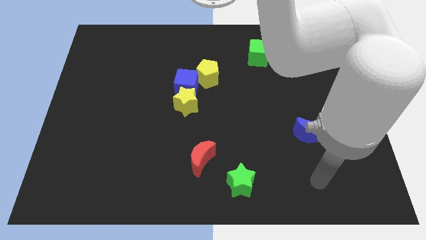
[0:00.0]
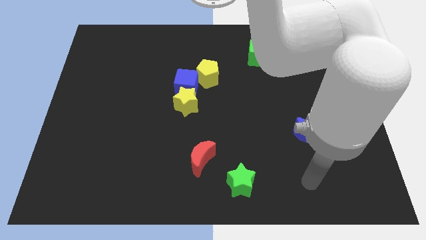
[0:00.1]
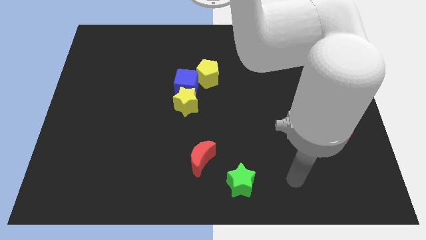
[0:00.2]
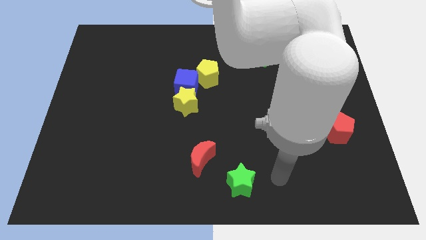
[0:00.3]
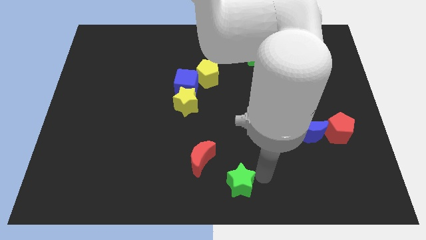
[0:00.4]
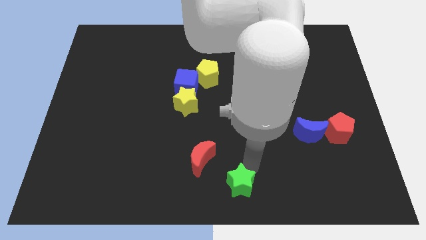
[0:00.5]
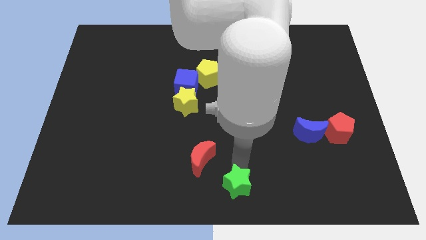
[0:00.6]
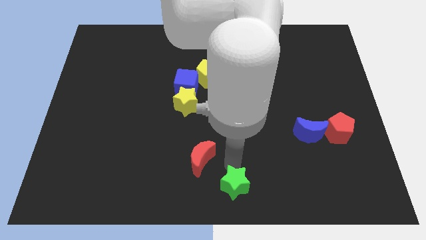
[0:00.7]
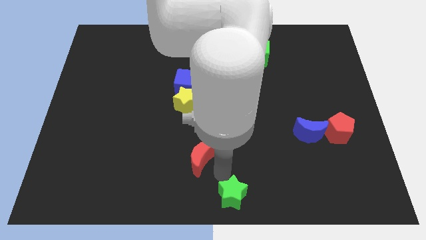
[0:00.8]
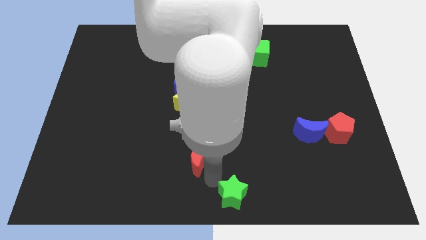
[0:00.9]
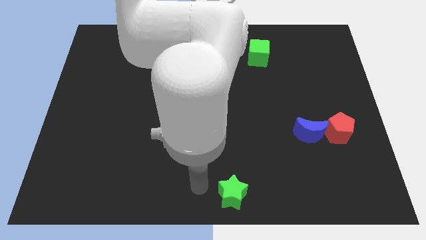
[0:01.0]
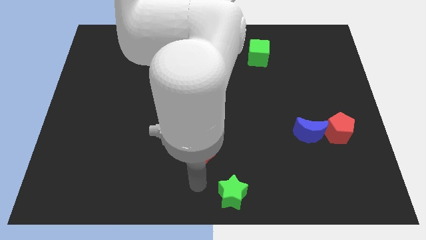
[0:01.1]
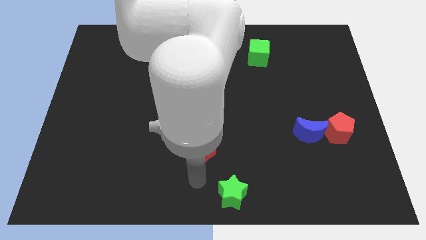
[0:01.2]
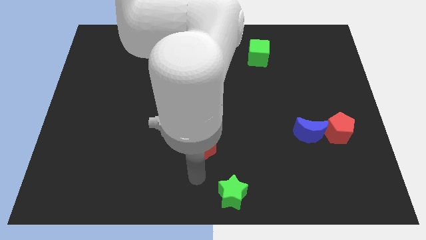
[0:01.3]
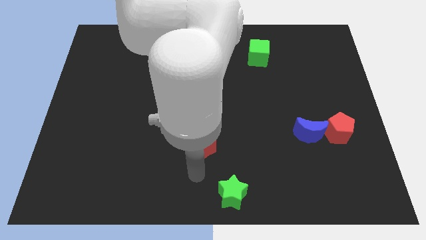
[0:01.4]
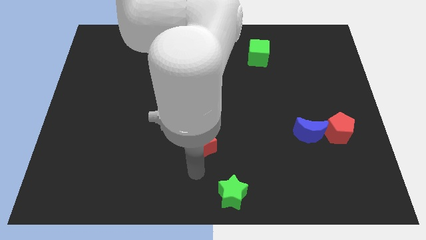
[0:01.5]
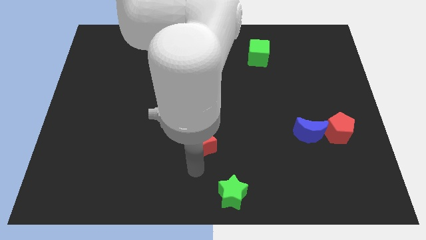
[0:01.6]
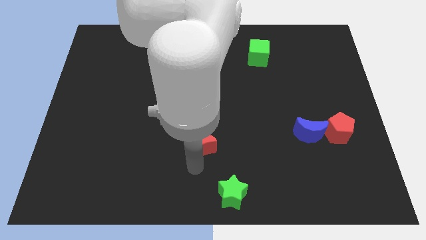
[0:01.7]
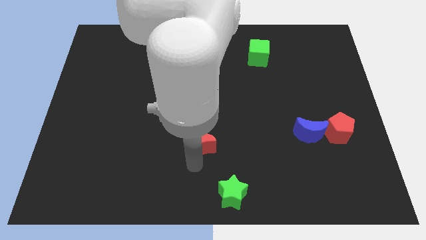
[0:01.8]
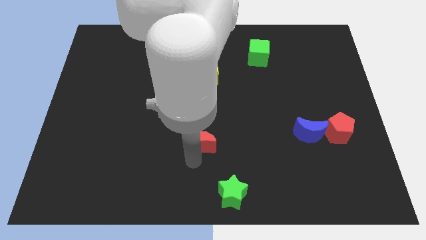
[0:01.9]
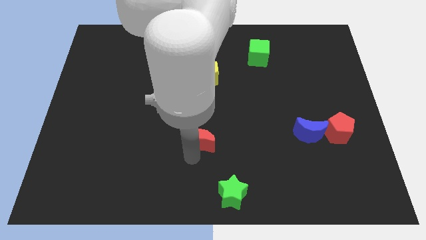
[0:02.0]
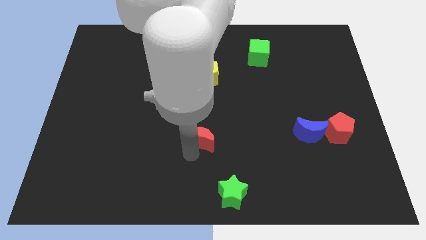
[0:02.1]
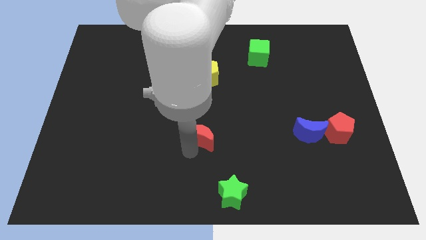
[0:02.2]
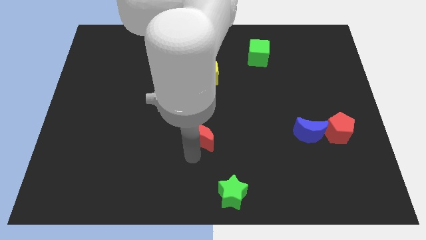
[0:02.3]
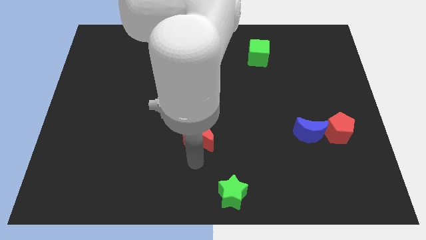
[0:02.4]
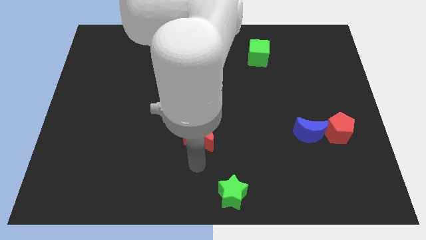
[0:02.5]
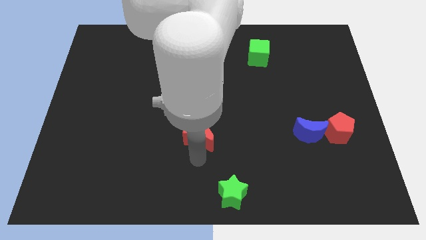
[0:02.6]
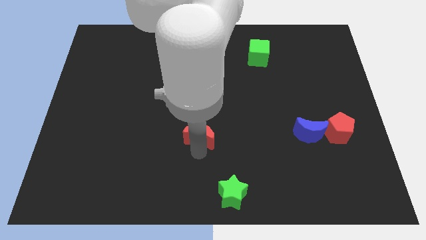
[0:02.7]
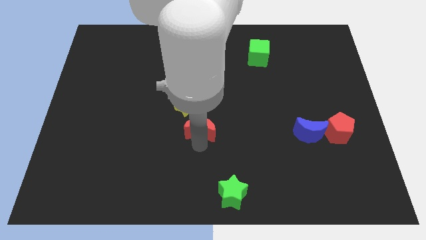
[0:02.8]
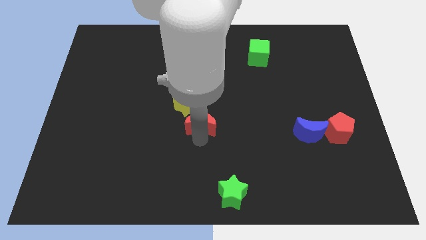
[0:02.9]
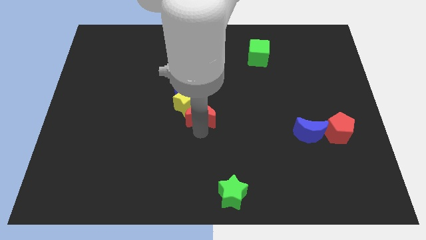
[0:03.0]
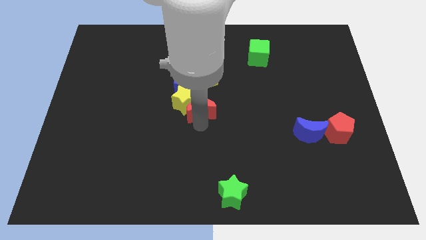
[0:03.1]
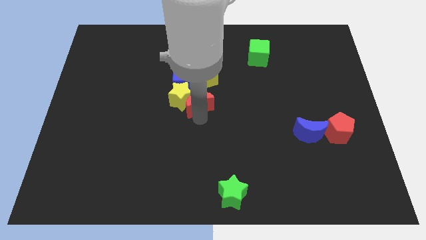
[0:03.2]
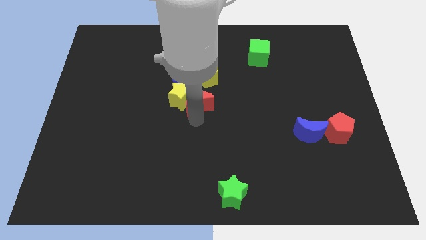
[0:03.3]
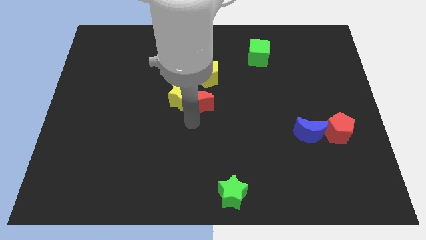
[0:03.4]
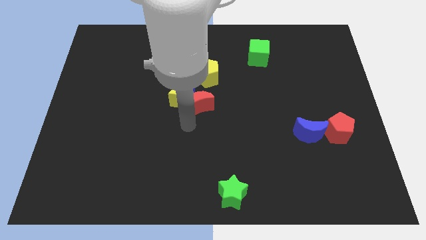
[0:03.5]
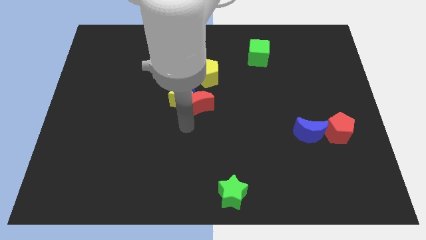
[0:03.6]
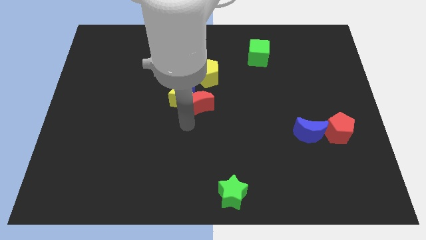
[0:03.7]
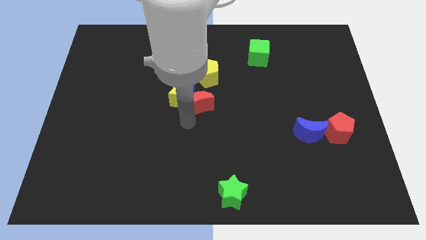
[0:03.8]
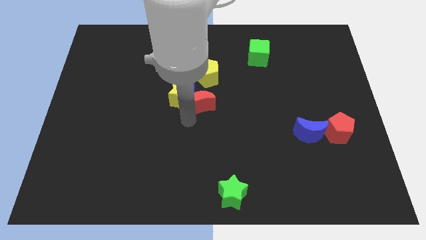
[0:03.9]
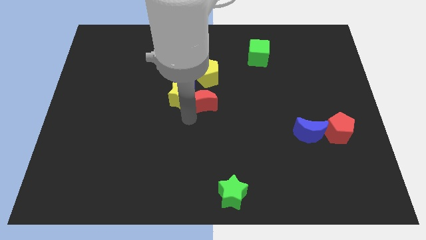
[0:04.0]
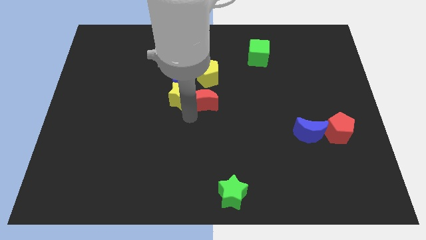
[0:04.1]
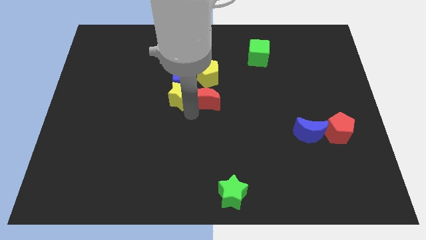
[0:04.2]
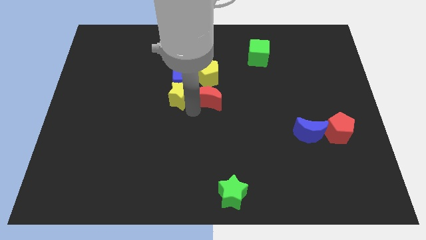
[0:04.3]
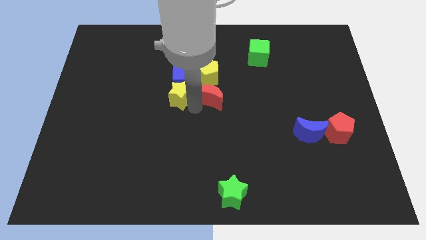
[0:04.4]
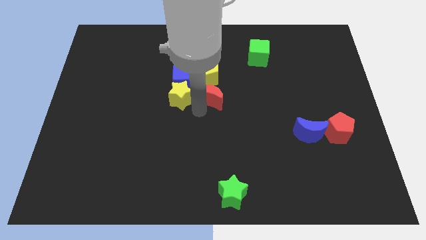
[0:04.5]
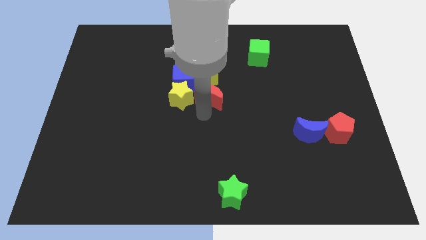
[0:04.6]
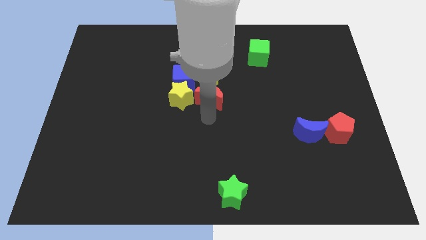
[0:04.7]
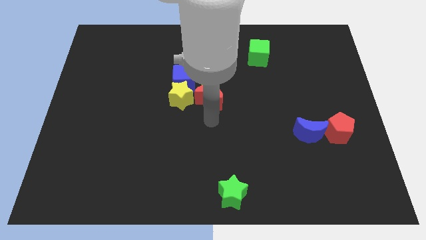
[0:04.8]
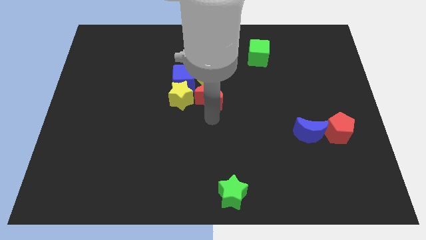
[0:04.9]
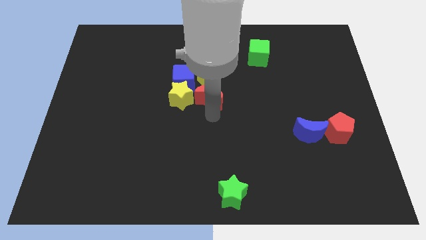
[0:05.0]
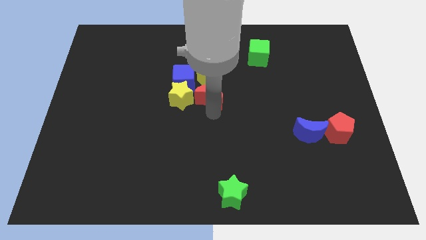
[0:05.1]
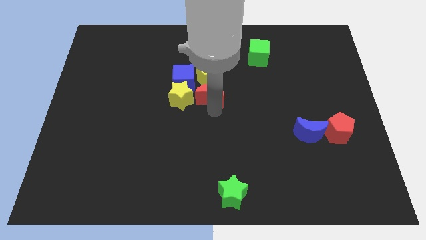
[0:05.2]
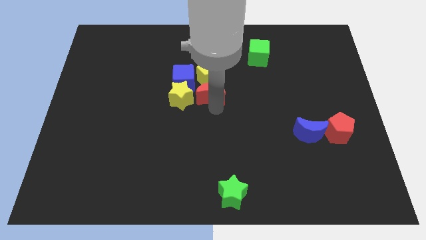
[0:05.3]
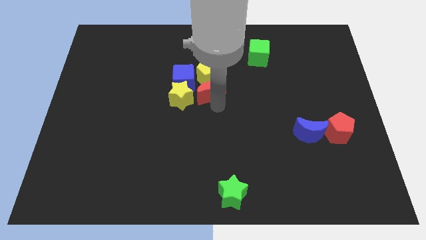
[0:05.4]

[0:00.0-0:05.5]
move the red moon to the yellow pentagon

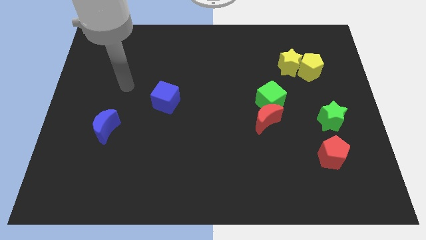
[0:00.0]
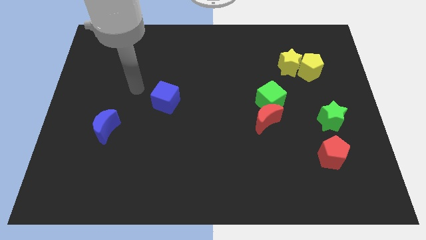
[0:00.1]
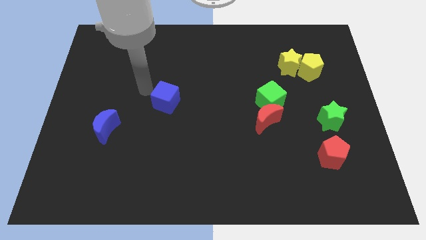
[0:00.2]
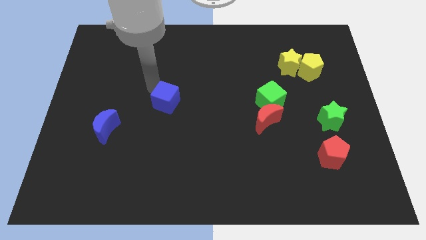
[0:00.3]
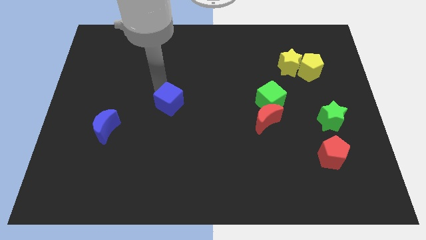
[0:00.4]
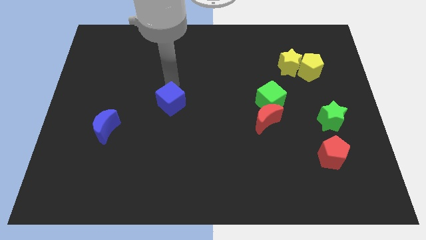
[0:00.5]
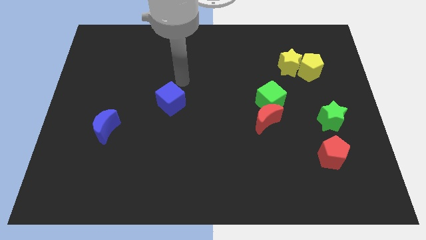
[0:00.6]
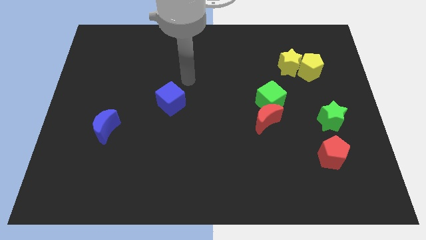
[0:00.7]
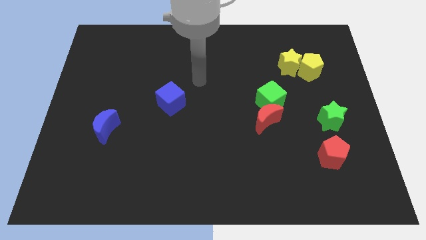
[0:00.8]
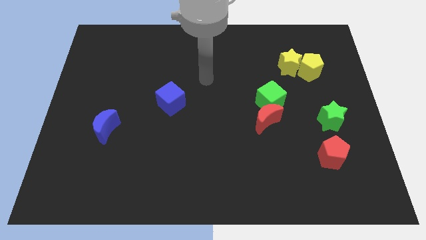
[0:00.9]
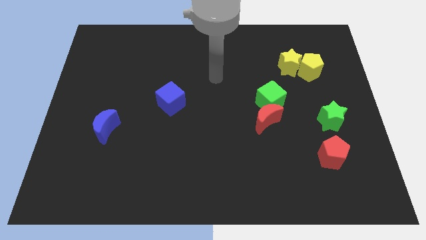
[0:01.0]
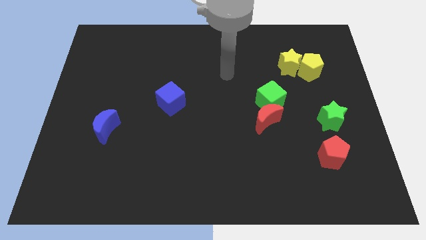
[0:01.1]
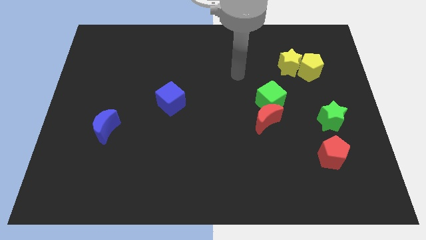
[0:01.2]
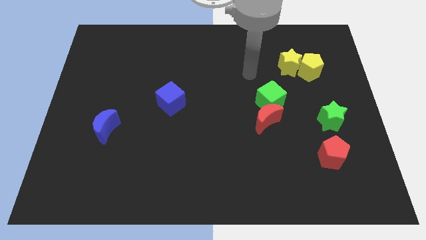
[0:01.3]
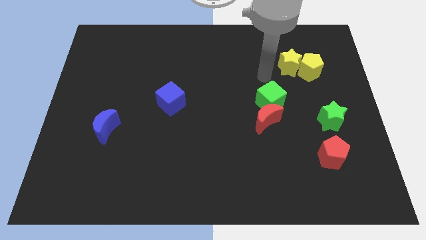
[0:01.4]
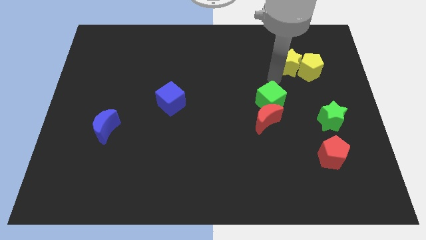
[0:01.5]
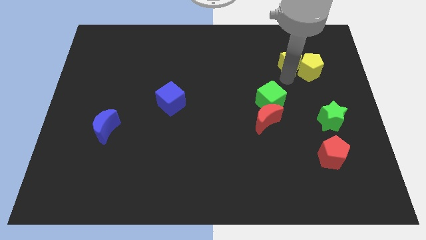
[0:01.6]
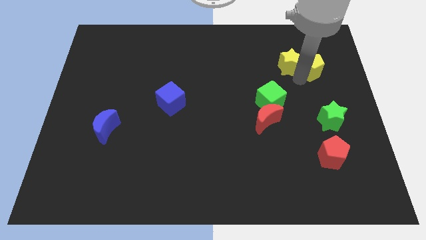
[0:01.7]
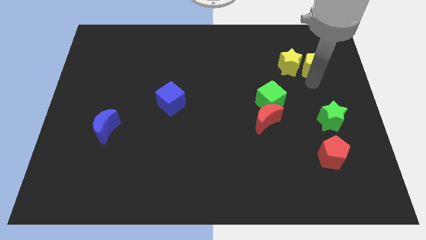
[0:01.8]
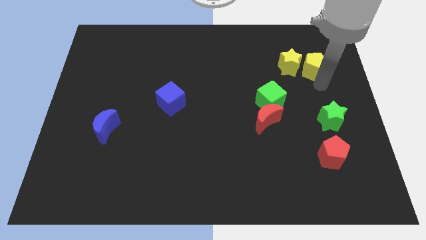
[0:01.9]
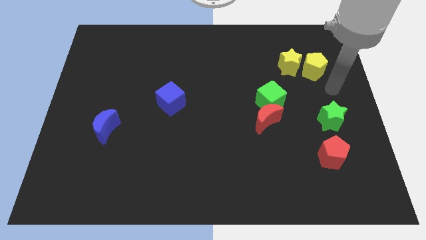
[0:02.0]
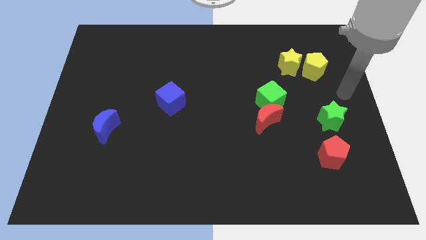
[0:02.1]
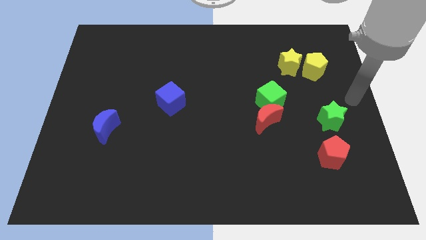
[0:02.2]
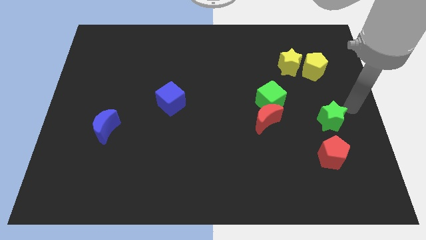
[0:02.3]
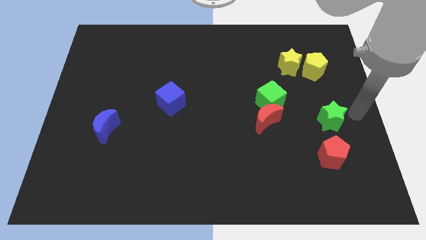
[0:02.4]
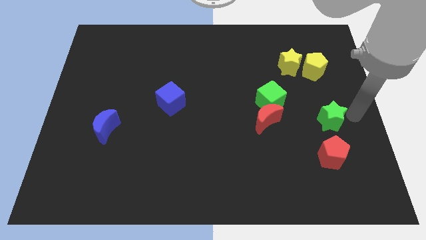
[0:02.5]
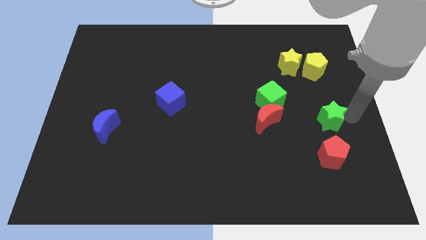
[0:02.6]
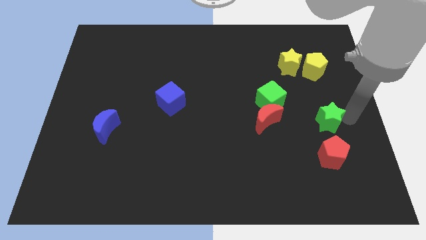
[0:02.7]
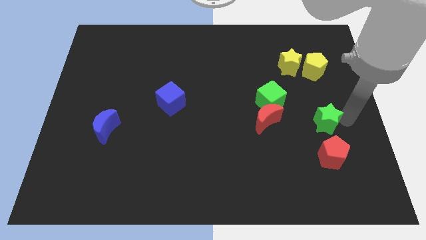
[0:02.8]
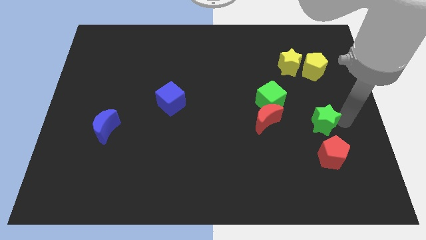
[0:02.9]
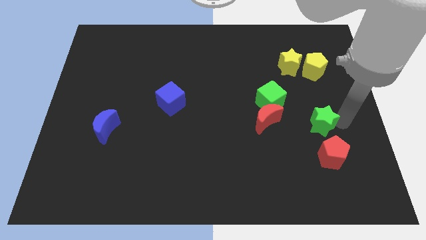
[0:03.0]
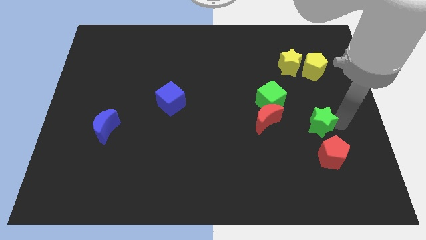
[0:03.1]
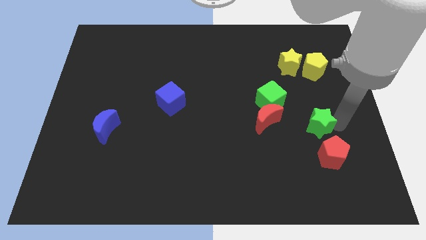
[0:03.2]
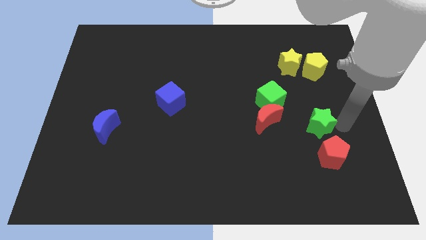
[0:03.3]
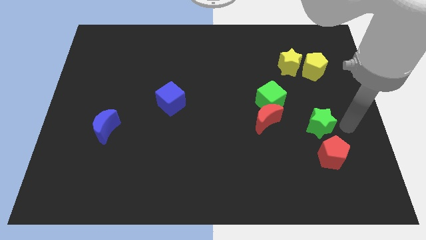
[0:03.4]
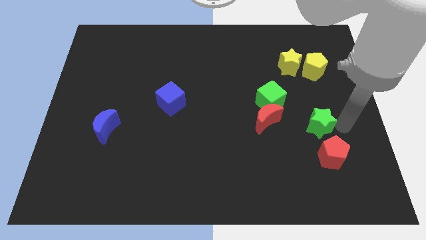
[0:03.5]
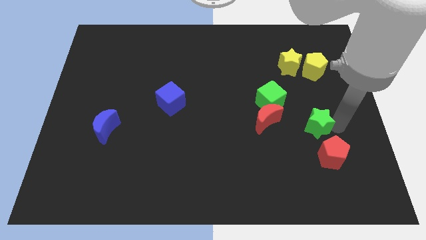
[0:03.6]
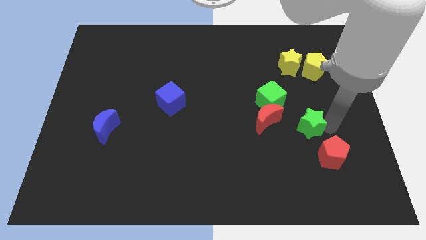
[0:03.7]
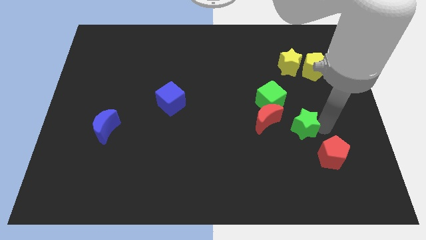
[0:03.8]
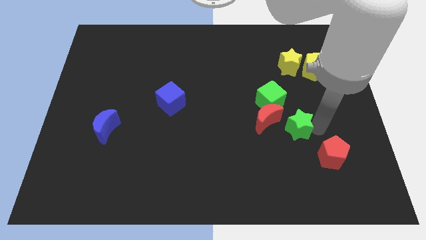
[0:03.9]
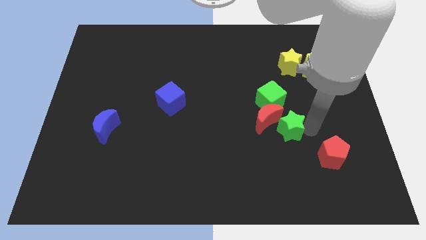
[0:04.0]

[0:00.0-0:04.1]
move the green star towards the red moon
